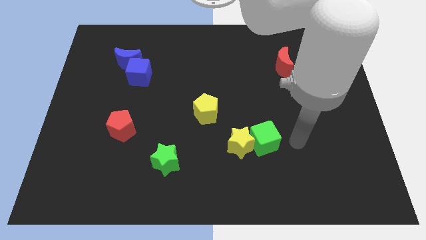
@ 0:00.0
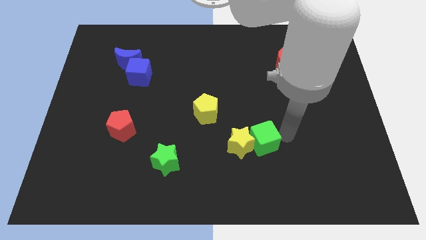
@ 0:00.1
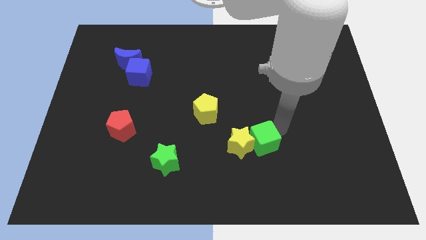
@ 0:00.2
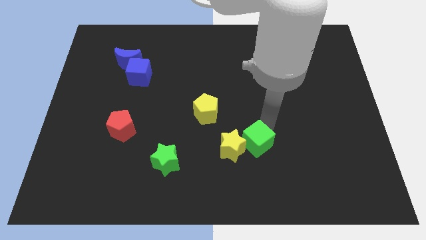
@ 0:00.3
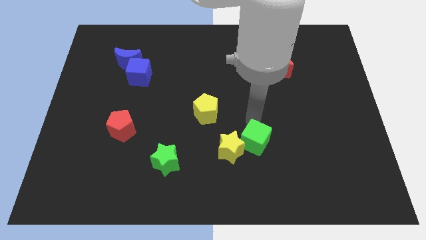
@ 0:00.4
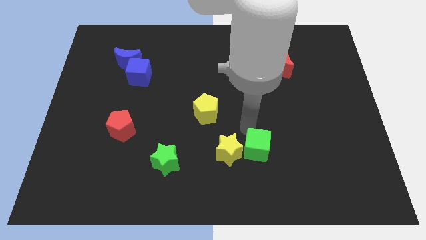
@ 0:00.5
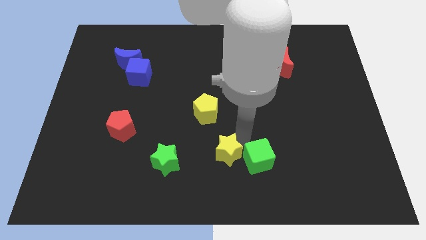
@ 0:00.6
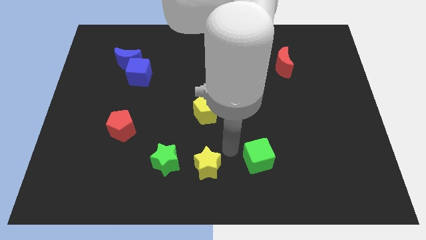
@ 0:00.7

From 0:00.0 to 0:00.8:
pull the green cube apart from the yellow star

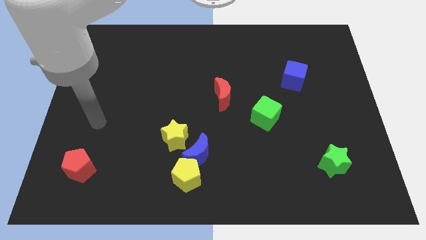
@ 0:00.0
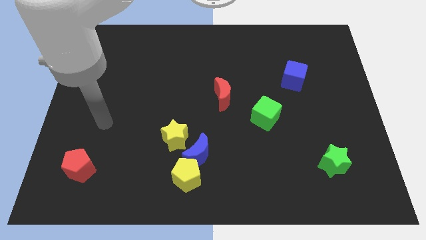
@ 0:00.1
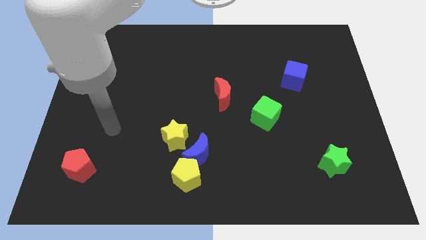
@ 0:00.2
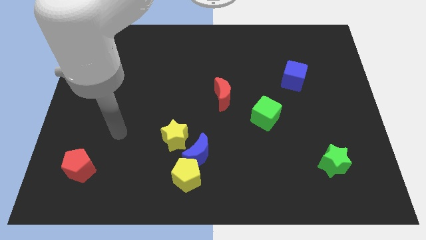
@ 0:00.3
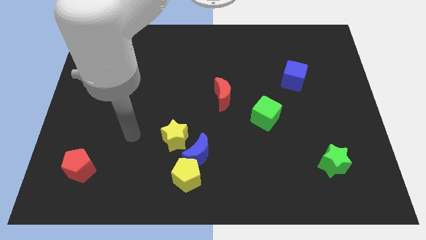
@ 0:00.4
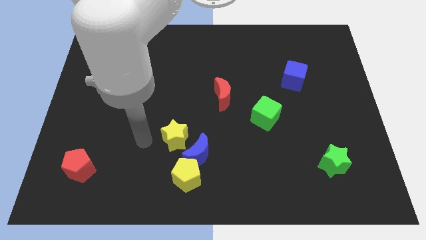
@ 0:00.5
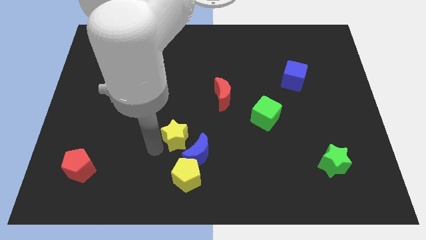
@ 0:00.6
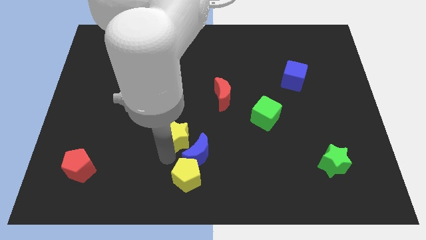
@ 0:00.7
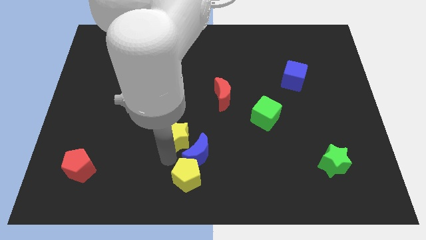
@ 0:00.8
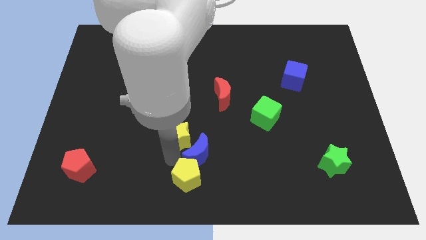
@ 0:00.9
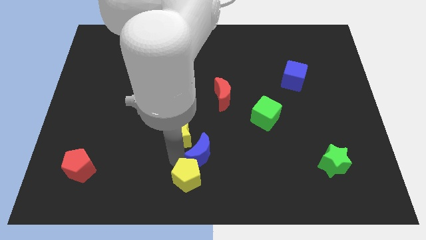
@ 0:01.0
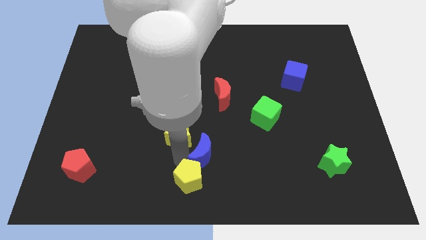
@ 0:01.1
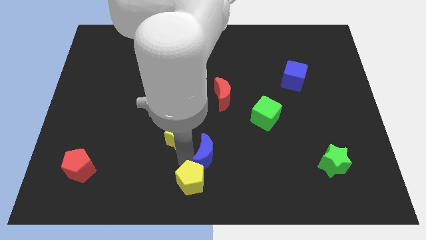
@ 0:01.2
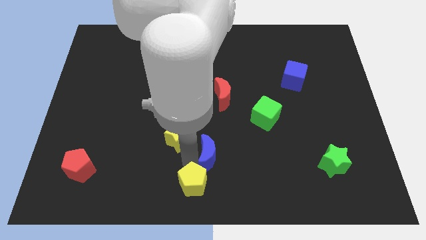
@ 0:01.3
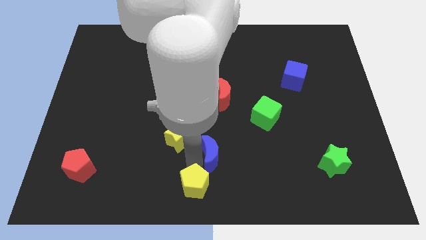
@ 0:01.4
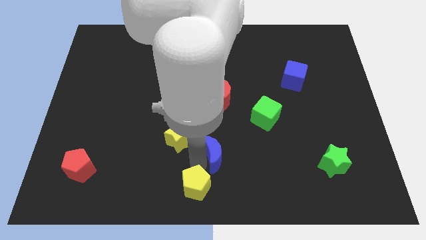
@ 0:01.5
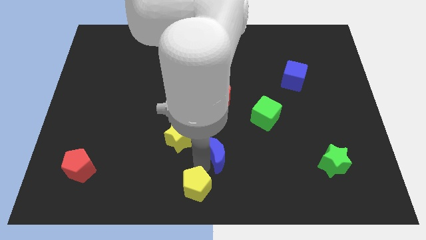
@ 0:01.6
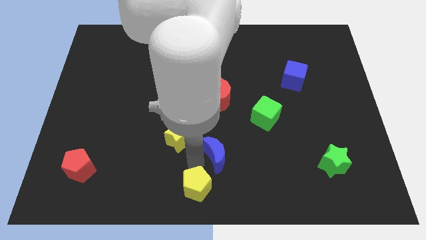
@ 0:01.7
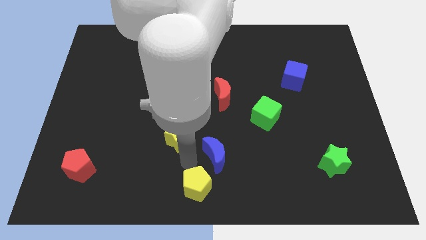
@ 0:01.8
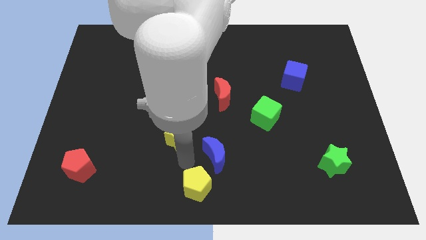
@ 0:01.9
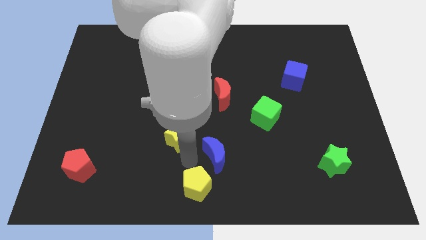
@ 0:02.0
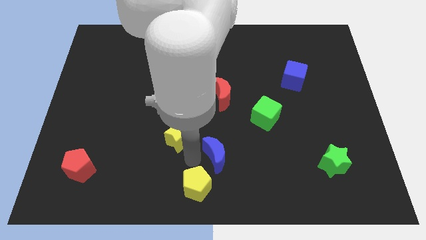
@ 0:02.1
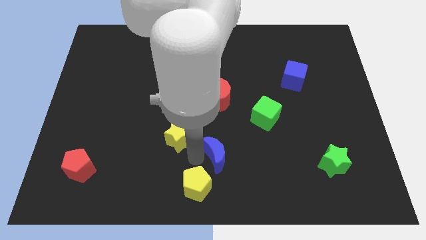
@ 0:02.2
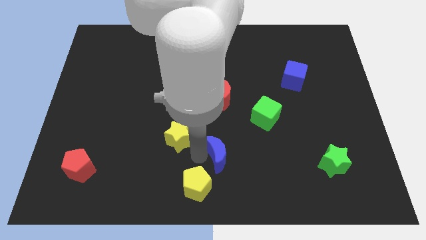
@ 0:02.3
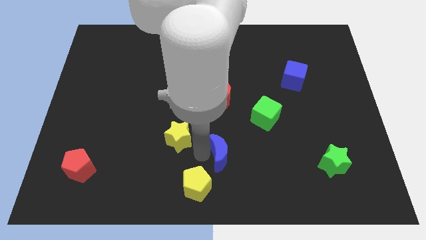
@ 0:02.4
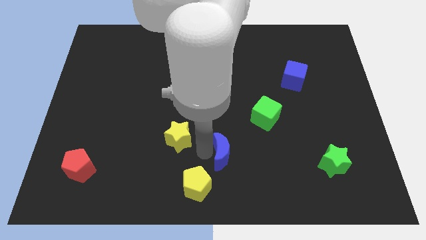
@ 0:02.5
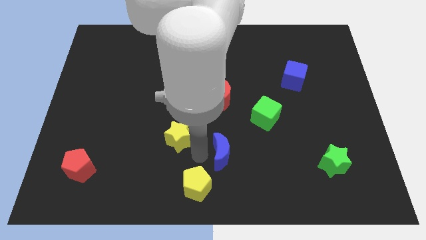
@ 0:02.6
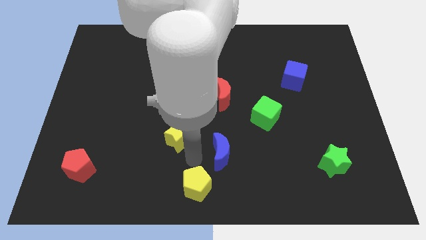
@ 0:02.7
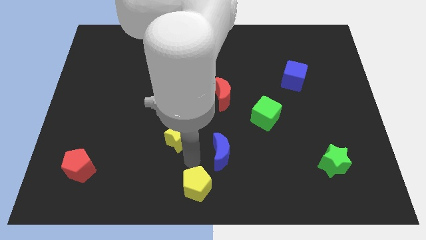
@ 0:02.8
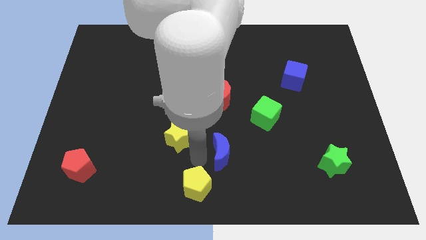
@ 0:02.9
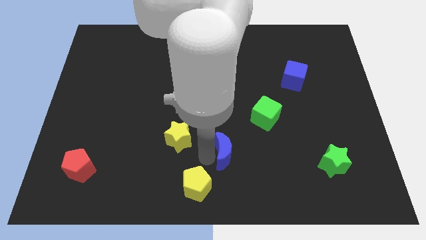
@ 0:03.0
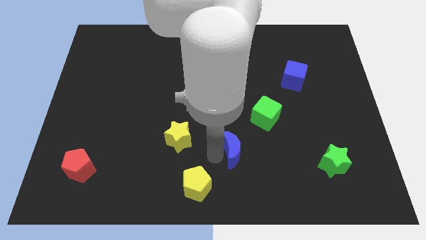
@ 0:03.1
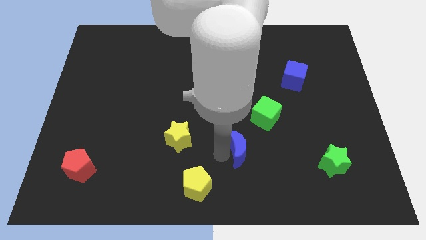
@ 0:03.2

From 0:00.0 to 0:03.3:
pull the blue moon apart from the yellow pentagon and yellow star

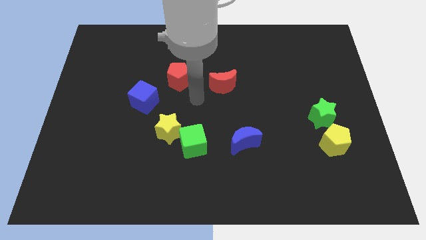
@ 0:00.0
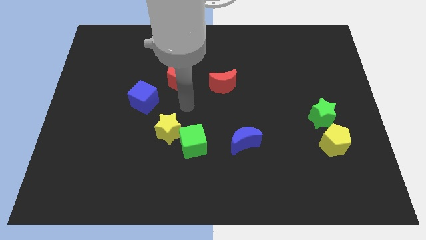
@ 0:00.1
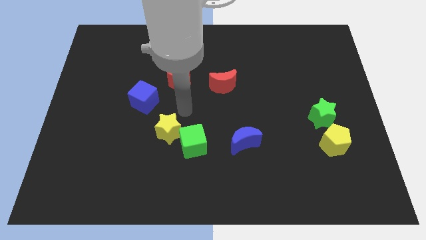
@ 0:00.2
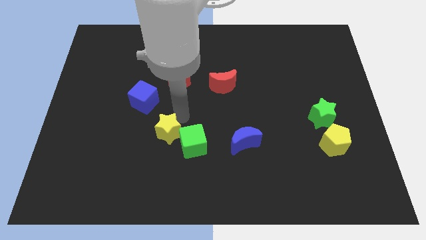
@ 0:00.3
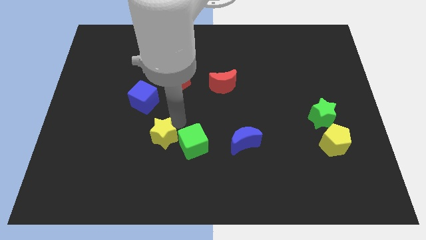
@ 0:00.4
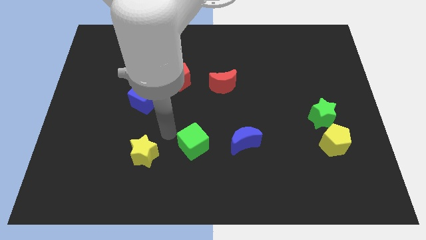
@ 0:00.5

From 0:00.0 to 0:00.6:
move the green cube away from the yellow star

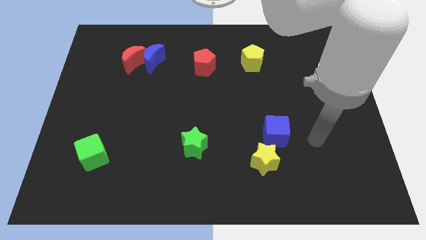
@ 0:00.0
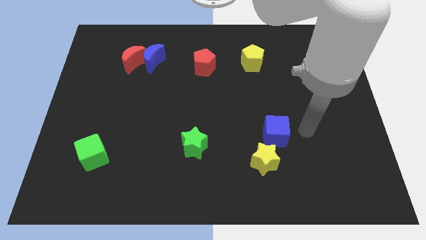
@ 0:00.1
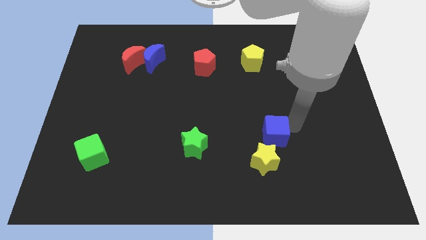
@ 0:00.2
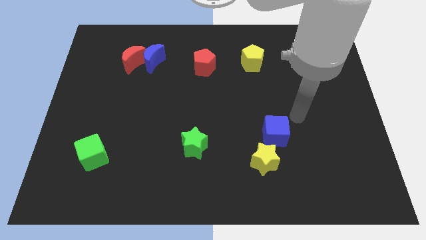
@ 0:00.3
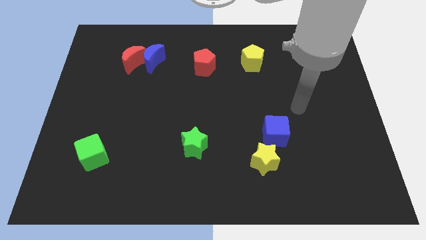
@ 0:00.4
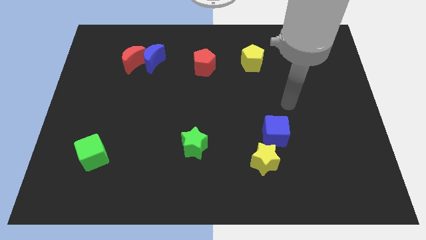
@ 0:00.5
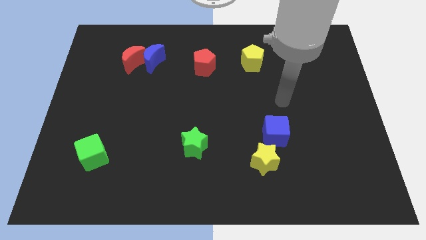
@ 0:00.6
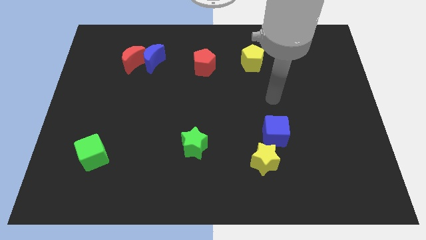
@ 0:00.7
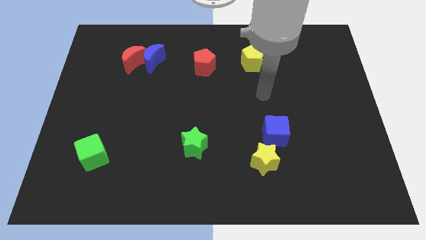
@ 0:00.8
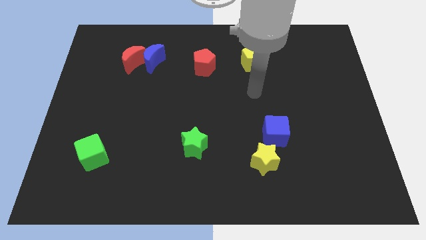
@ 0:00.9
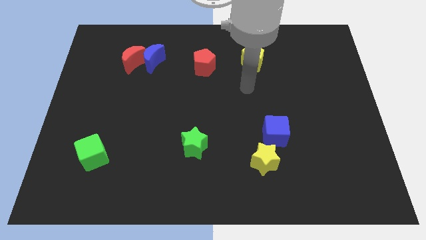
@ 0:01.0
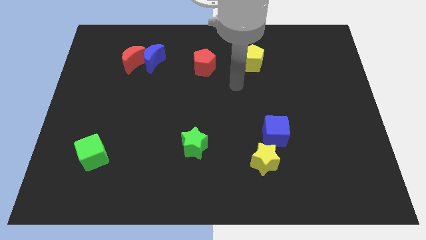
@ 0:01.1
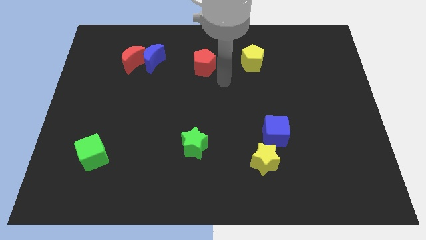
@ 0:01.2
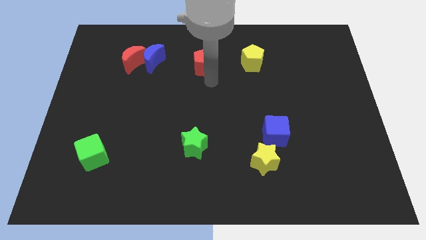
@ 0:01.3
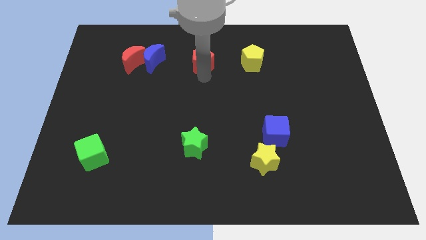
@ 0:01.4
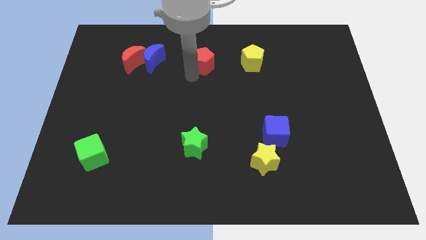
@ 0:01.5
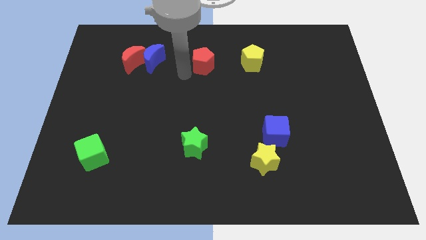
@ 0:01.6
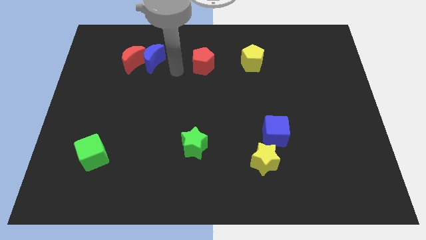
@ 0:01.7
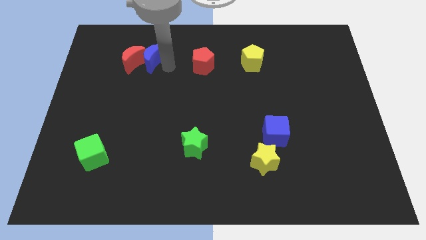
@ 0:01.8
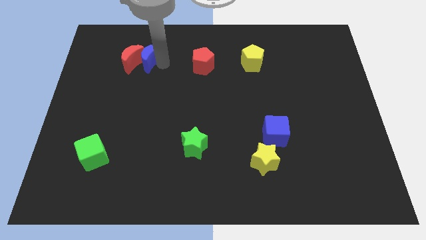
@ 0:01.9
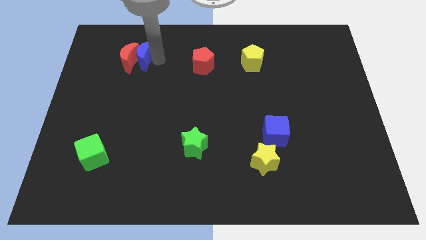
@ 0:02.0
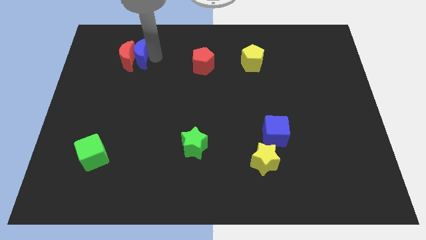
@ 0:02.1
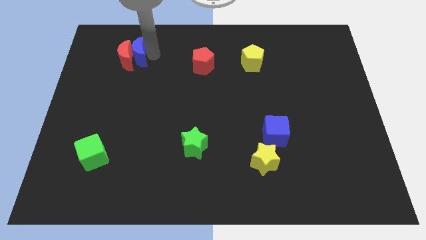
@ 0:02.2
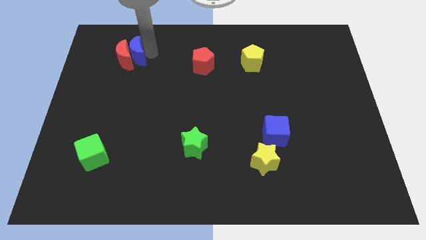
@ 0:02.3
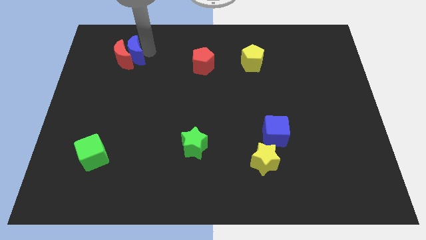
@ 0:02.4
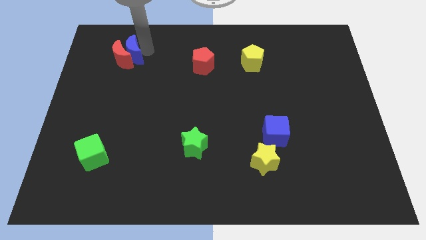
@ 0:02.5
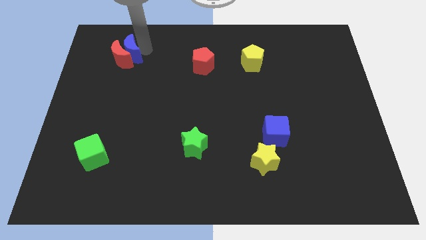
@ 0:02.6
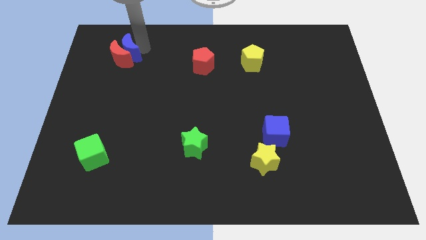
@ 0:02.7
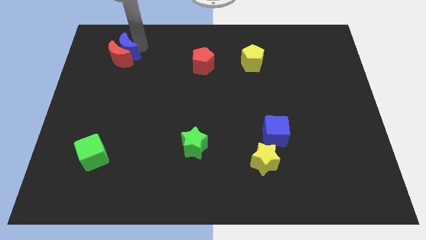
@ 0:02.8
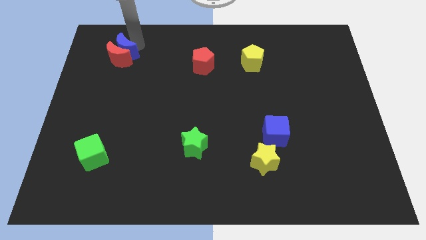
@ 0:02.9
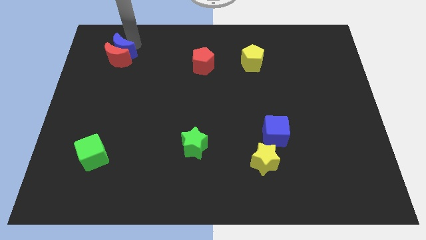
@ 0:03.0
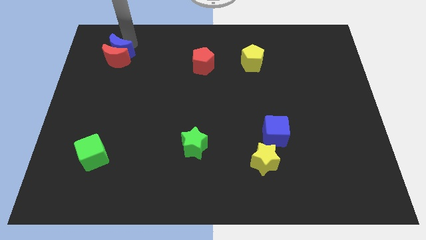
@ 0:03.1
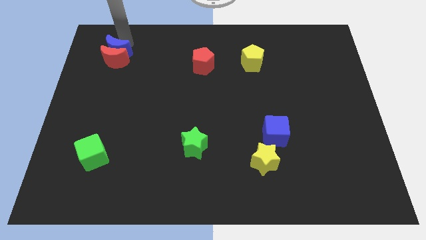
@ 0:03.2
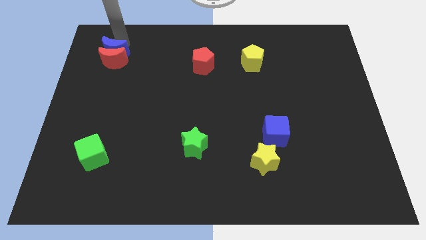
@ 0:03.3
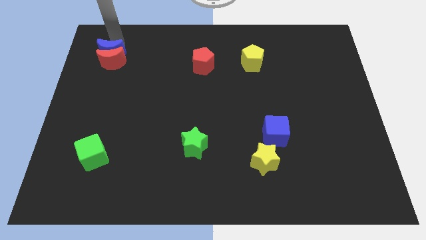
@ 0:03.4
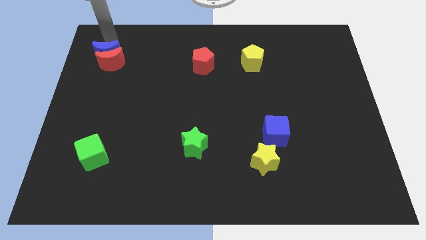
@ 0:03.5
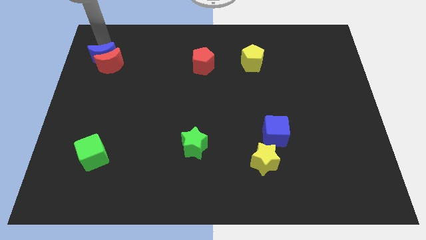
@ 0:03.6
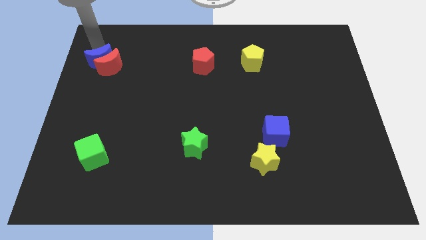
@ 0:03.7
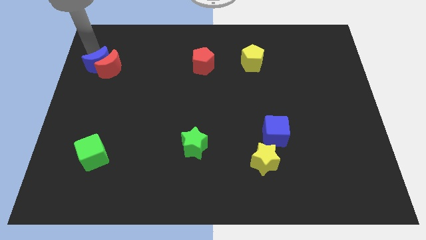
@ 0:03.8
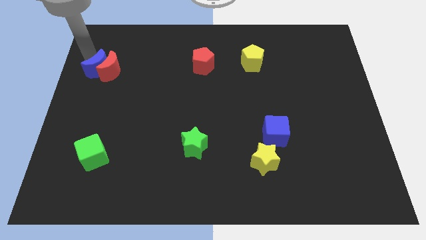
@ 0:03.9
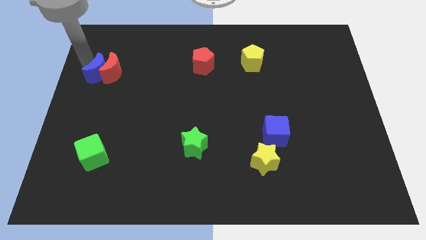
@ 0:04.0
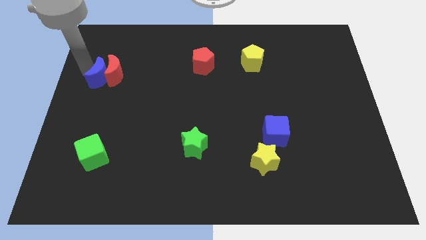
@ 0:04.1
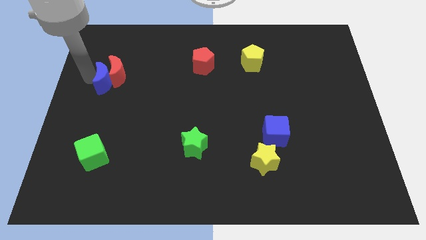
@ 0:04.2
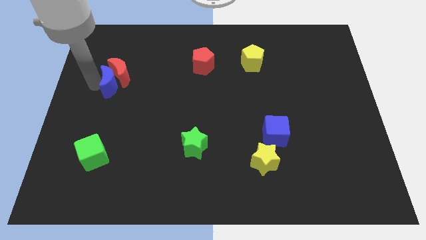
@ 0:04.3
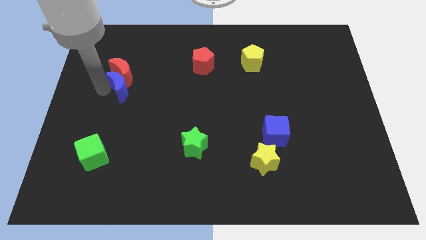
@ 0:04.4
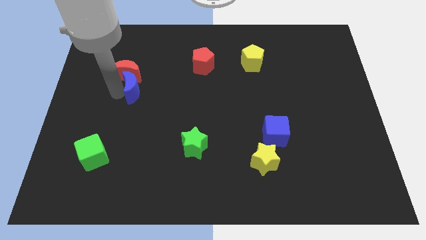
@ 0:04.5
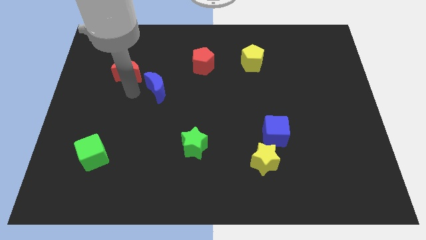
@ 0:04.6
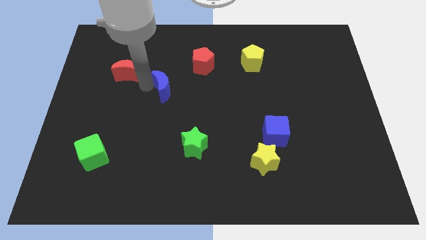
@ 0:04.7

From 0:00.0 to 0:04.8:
move the red moon away from the blue moon
